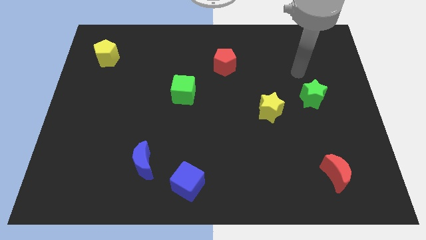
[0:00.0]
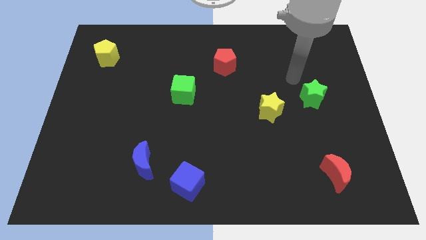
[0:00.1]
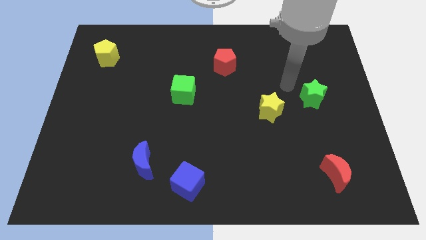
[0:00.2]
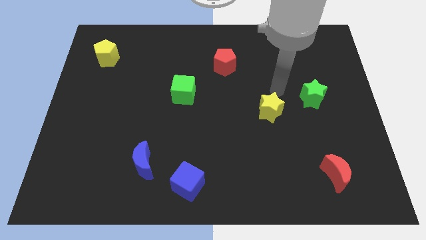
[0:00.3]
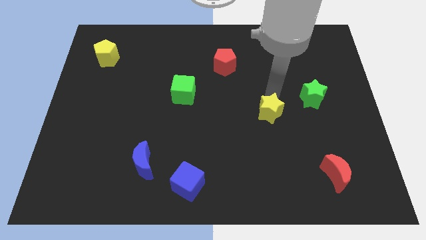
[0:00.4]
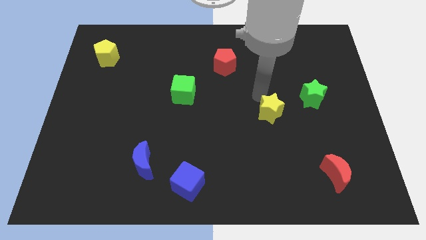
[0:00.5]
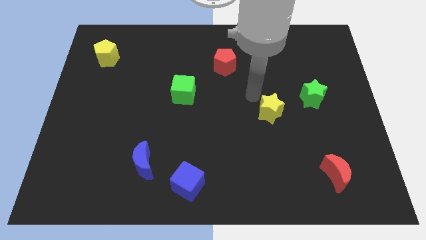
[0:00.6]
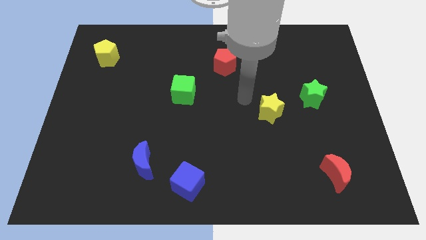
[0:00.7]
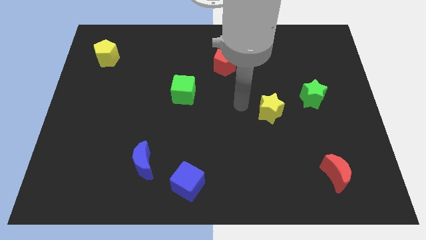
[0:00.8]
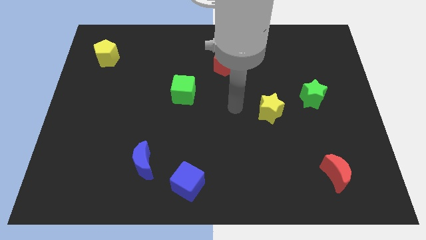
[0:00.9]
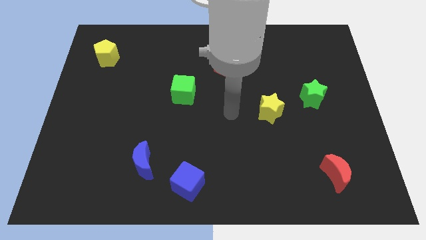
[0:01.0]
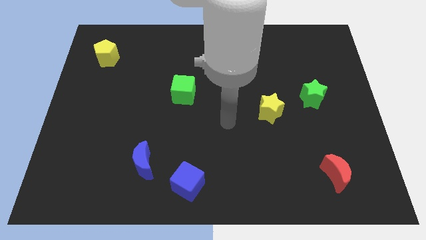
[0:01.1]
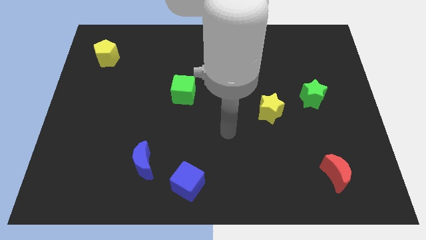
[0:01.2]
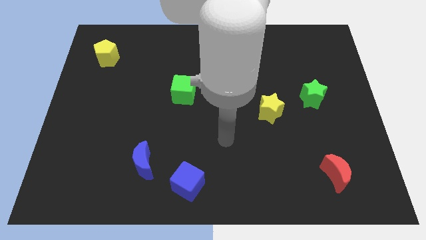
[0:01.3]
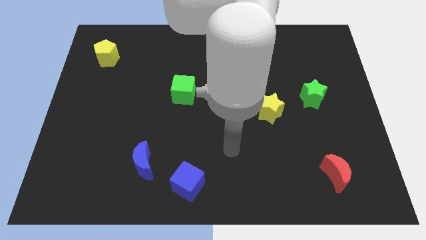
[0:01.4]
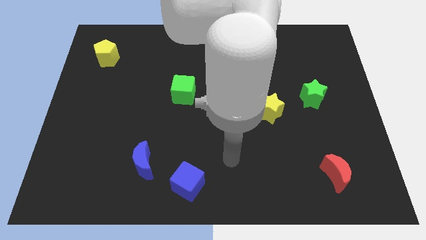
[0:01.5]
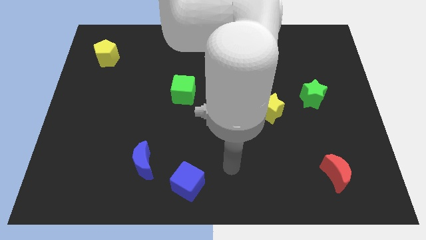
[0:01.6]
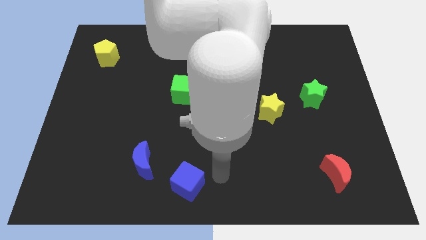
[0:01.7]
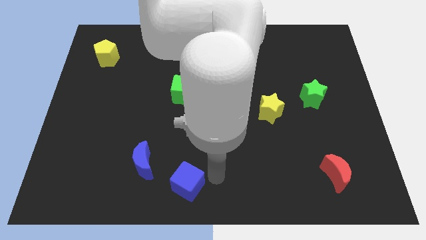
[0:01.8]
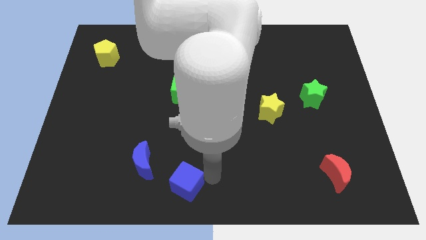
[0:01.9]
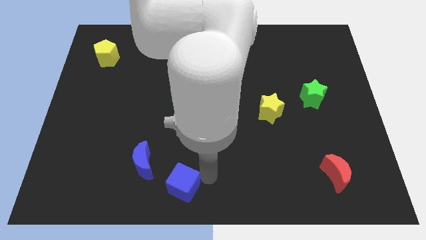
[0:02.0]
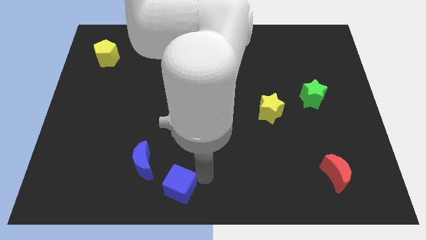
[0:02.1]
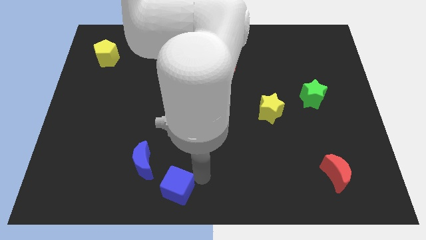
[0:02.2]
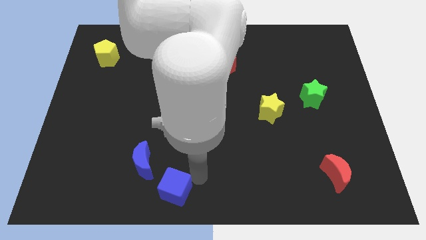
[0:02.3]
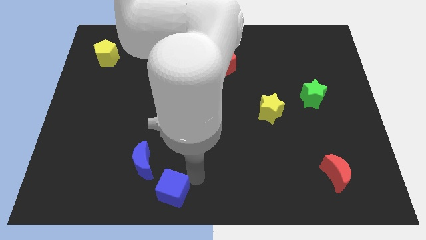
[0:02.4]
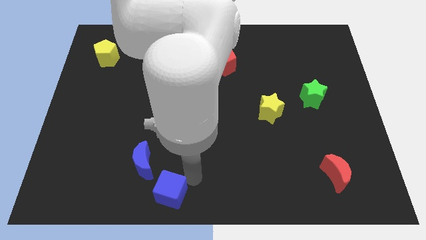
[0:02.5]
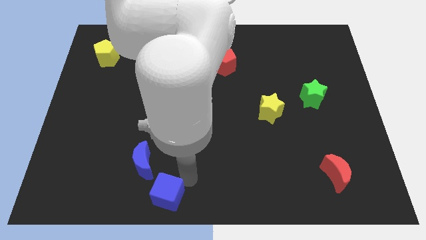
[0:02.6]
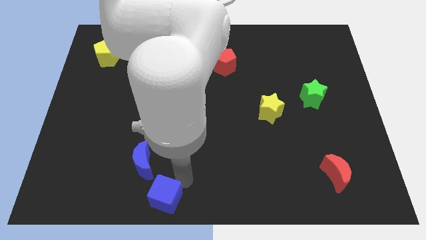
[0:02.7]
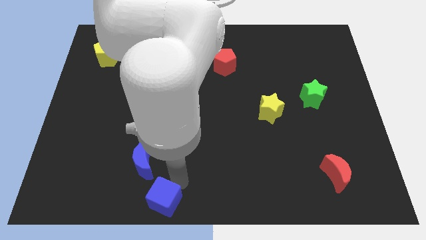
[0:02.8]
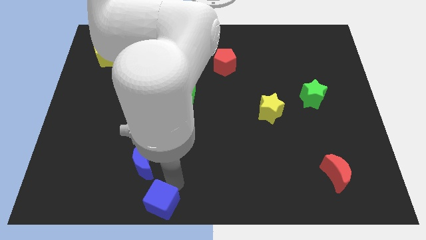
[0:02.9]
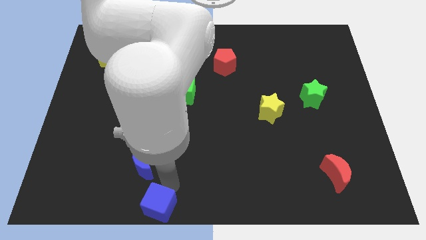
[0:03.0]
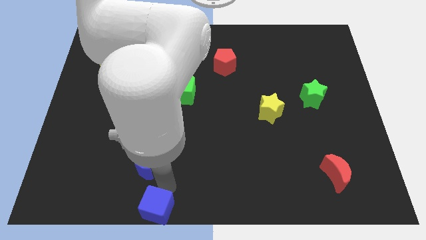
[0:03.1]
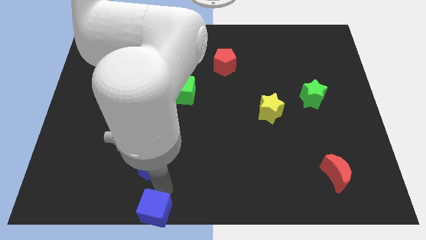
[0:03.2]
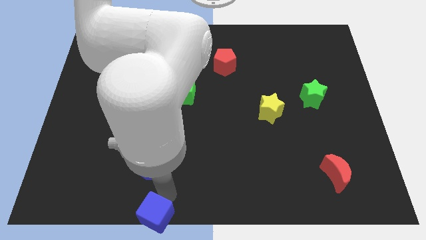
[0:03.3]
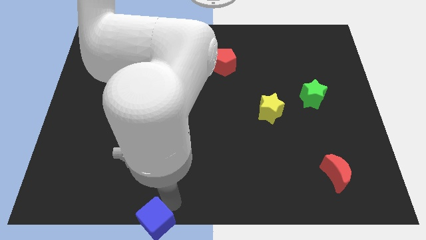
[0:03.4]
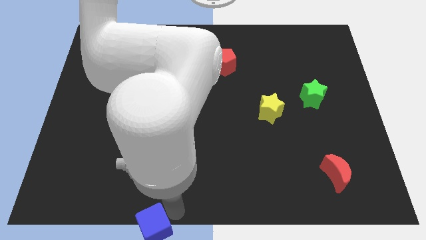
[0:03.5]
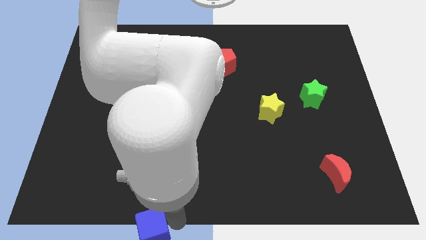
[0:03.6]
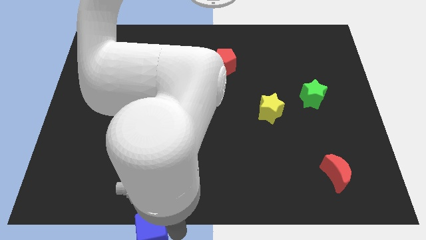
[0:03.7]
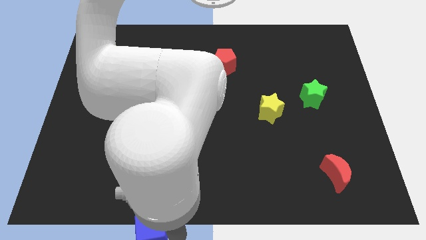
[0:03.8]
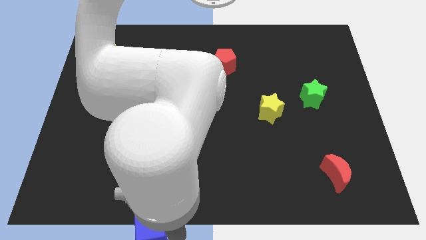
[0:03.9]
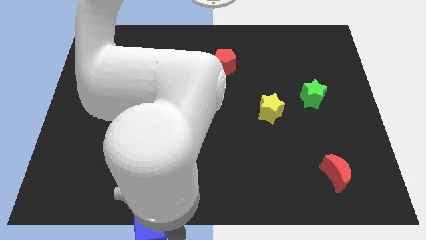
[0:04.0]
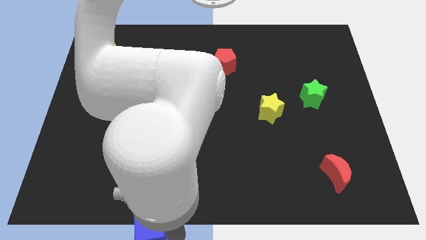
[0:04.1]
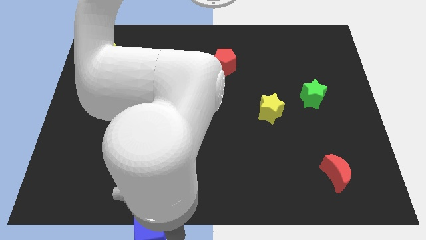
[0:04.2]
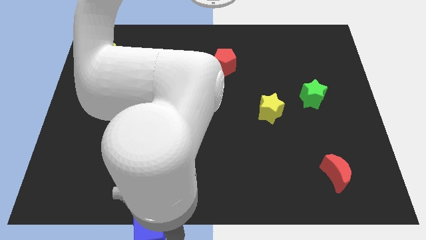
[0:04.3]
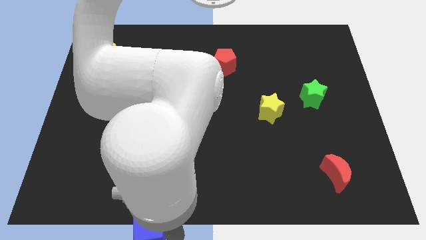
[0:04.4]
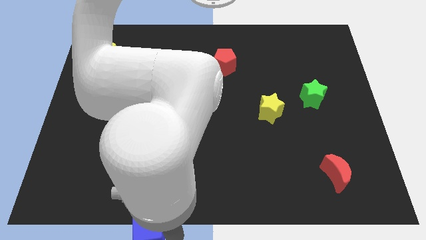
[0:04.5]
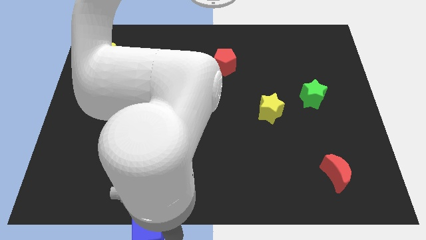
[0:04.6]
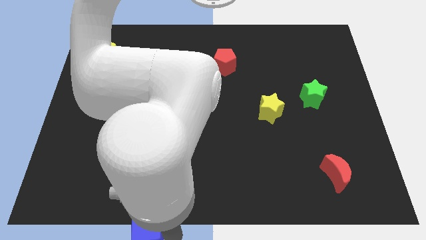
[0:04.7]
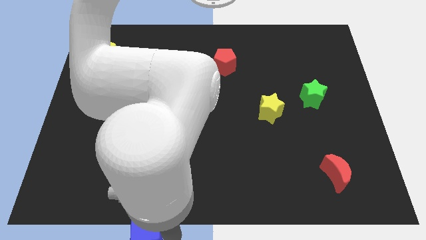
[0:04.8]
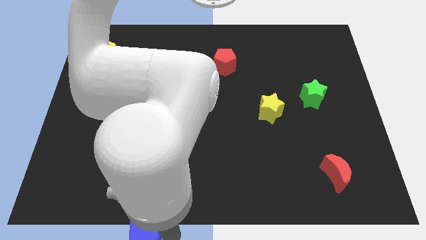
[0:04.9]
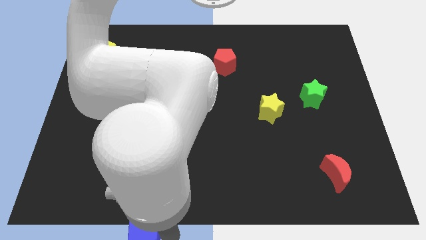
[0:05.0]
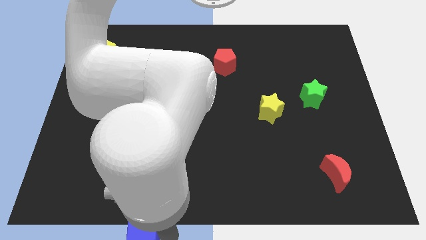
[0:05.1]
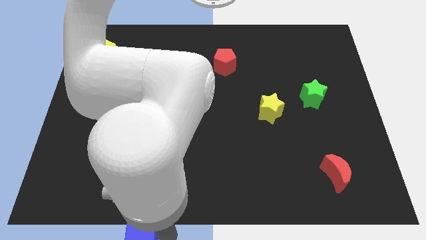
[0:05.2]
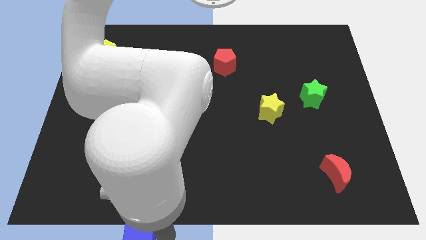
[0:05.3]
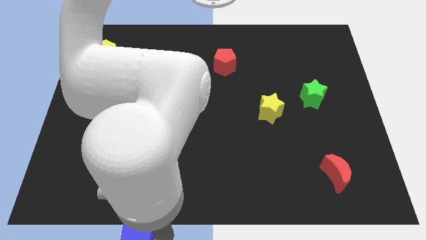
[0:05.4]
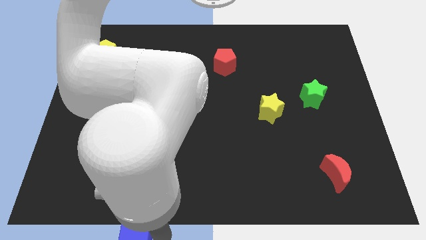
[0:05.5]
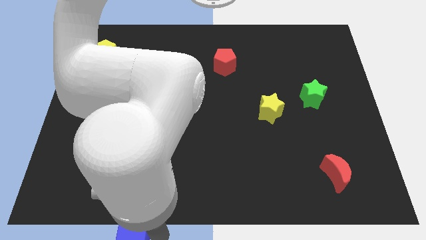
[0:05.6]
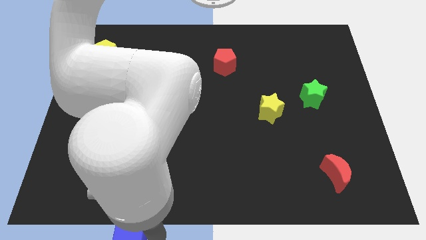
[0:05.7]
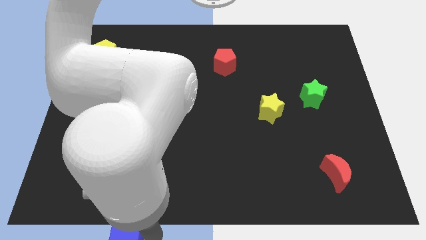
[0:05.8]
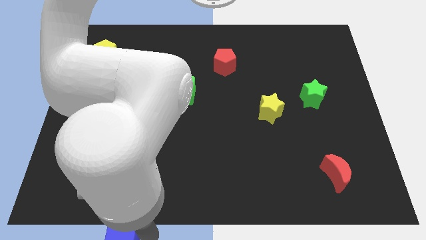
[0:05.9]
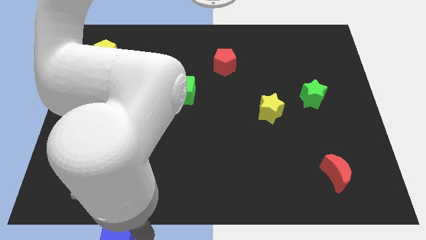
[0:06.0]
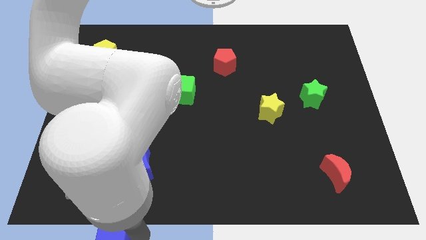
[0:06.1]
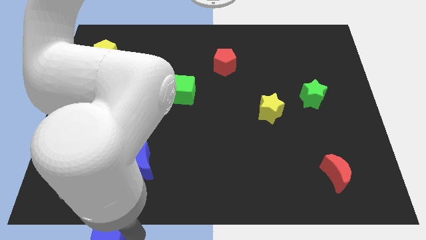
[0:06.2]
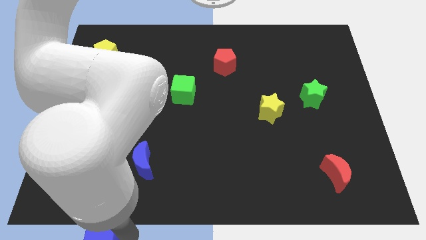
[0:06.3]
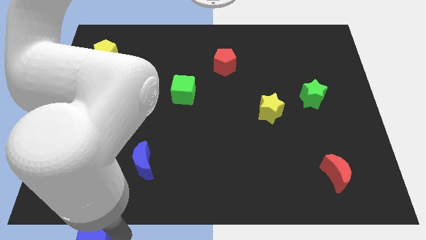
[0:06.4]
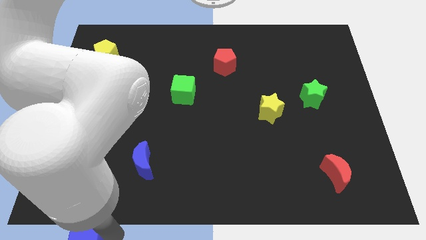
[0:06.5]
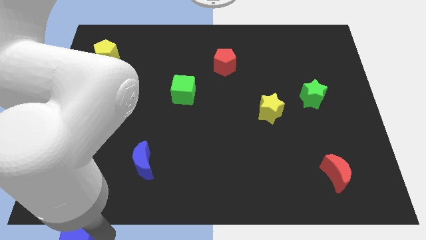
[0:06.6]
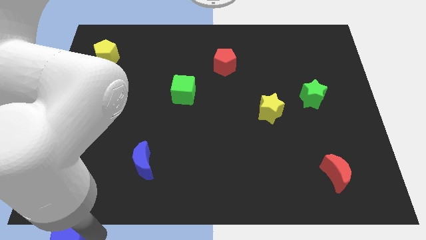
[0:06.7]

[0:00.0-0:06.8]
move the blue cube to the lower left corner
